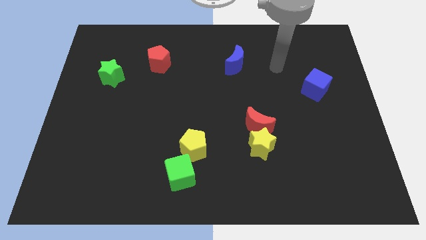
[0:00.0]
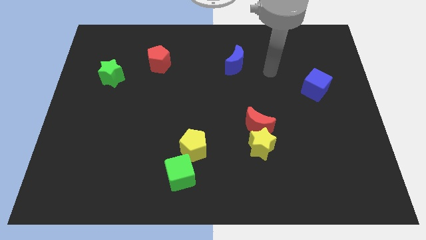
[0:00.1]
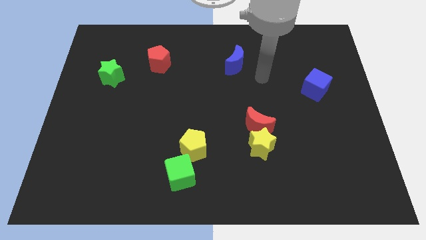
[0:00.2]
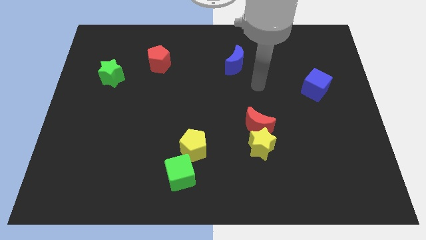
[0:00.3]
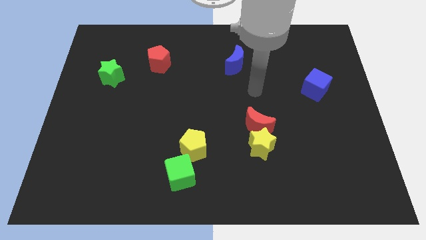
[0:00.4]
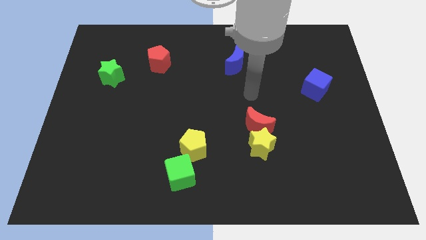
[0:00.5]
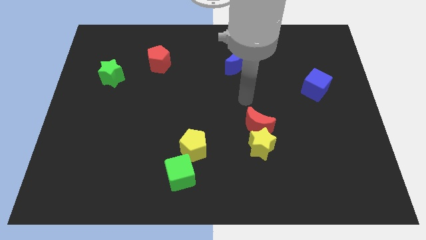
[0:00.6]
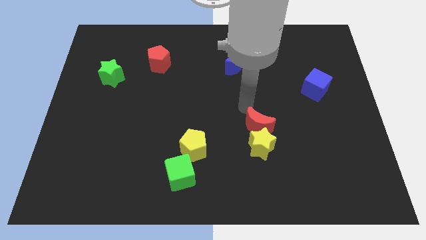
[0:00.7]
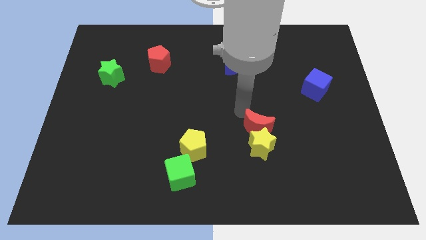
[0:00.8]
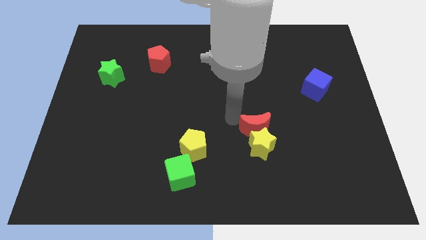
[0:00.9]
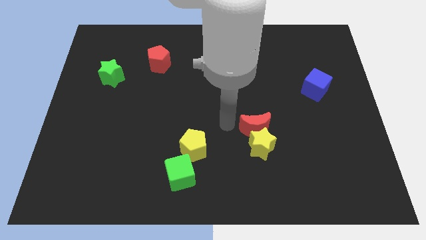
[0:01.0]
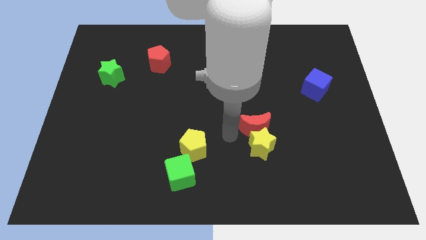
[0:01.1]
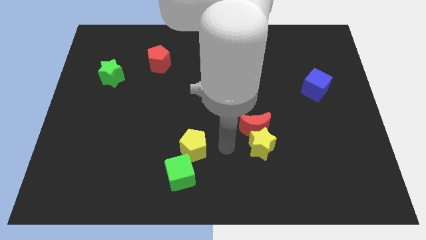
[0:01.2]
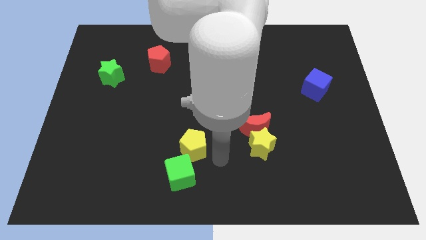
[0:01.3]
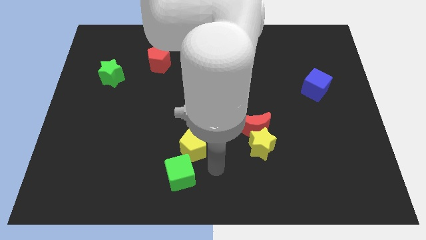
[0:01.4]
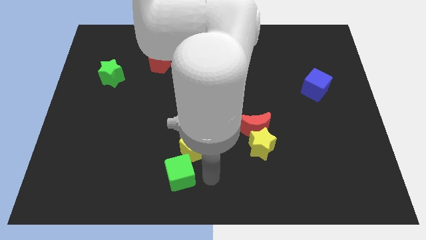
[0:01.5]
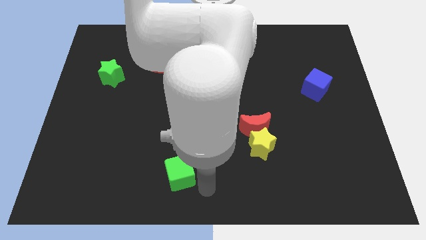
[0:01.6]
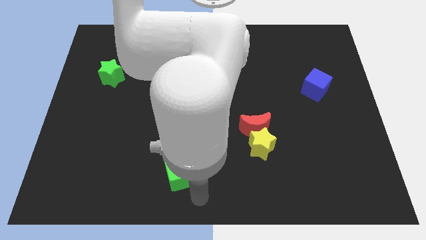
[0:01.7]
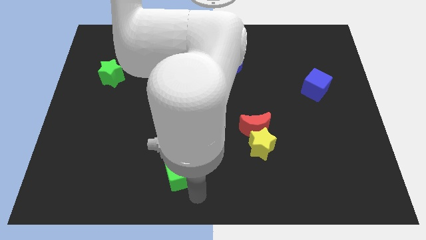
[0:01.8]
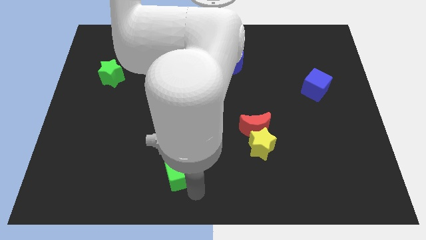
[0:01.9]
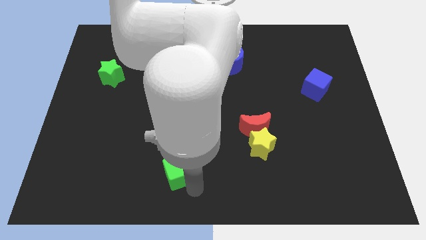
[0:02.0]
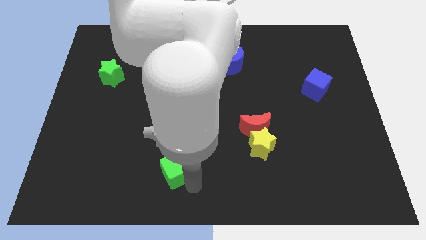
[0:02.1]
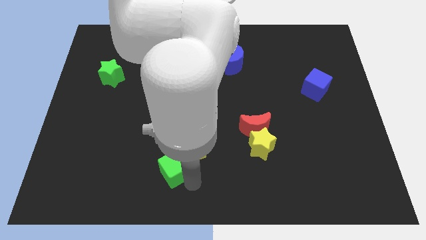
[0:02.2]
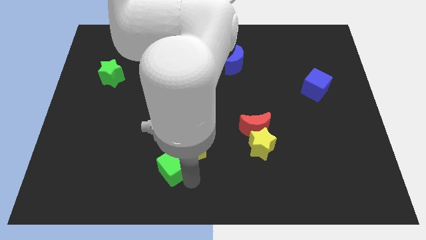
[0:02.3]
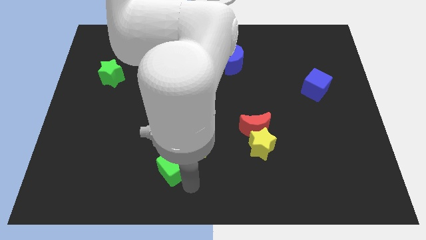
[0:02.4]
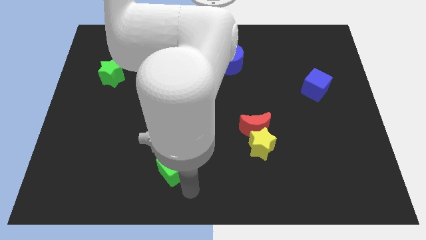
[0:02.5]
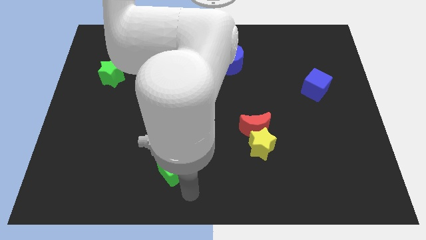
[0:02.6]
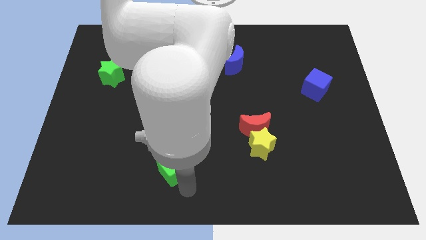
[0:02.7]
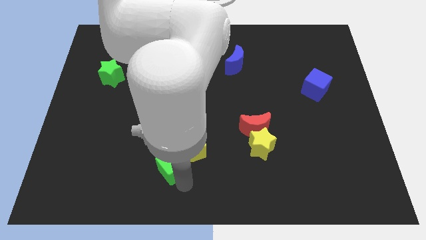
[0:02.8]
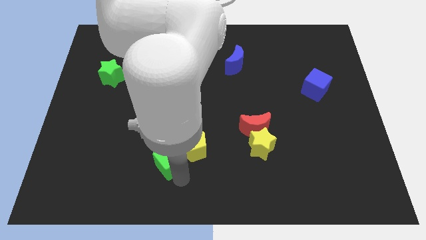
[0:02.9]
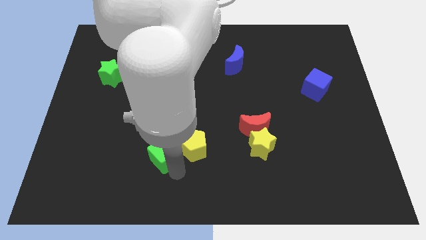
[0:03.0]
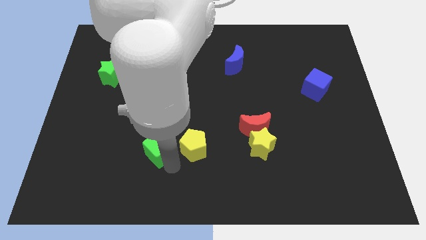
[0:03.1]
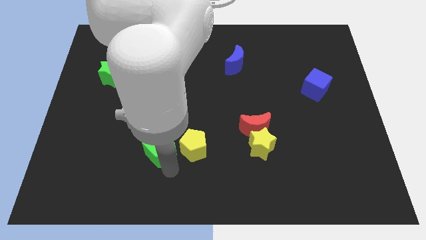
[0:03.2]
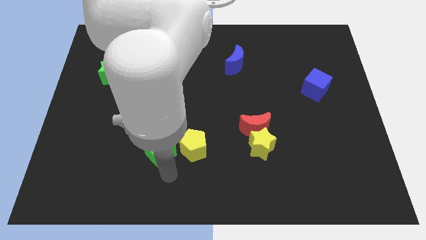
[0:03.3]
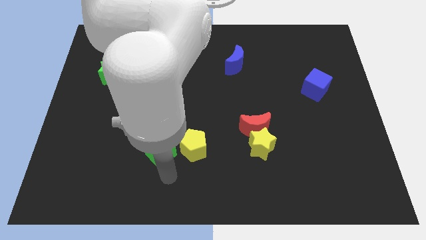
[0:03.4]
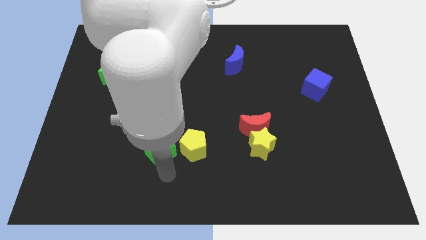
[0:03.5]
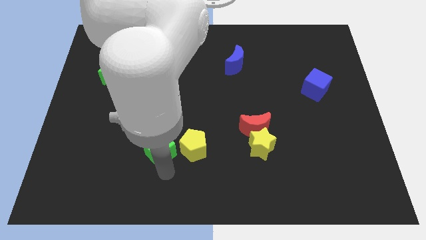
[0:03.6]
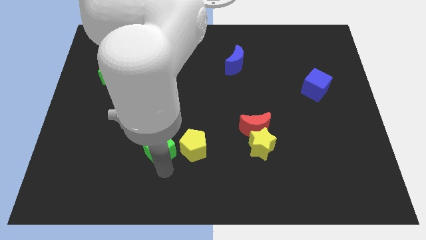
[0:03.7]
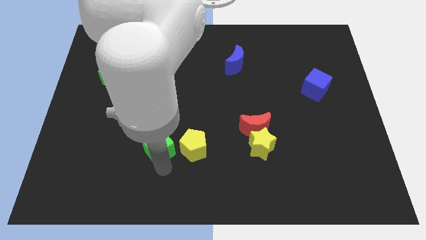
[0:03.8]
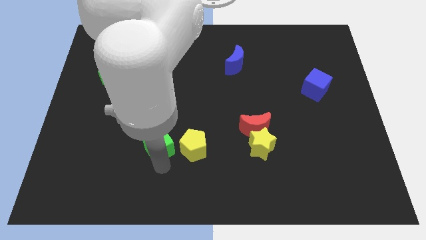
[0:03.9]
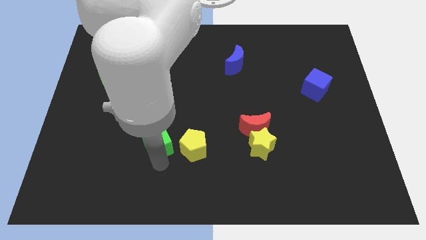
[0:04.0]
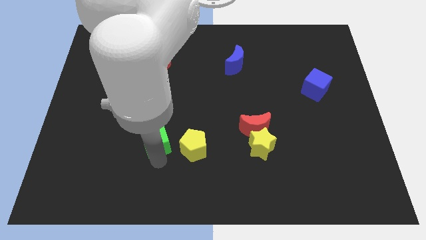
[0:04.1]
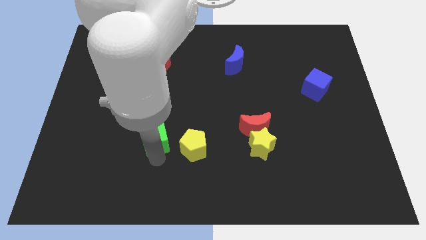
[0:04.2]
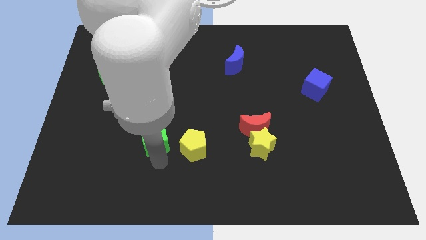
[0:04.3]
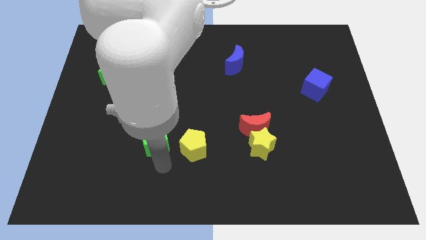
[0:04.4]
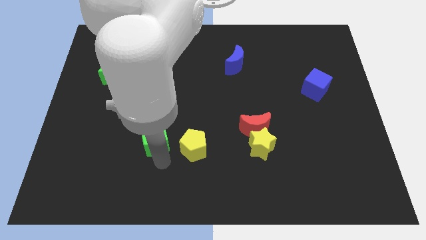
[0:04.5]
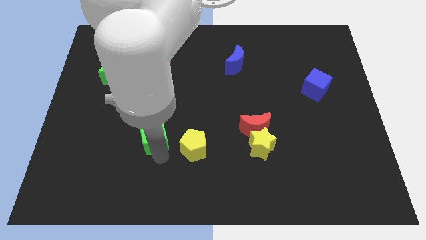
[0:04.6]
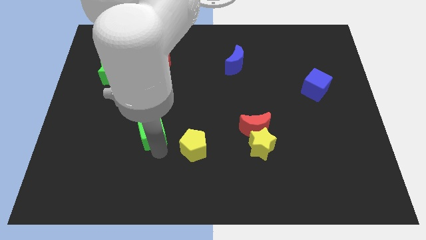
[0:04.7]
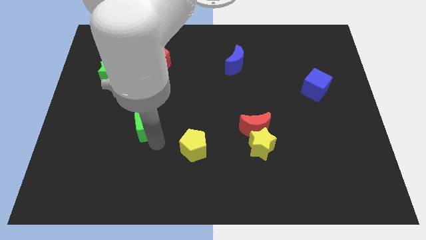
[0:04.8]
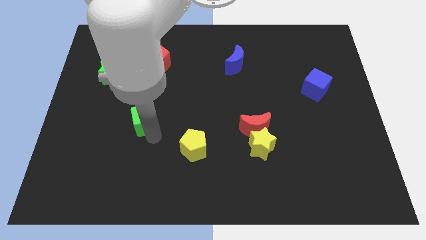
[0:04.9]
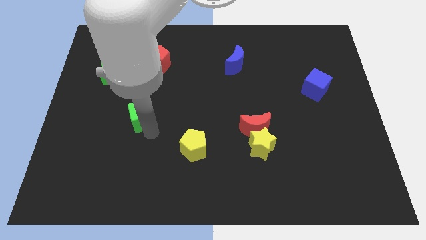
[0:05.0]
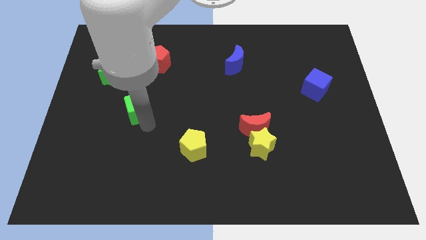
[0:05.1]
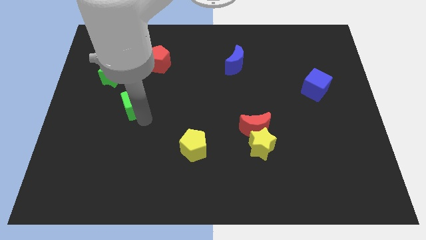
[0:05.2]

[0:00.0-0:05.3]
move the green cube to the bottom right of the green star

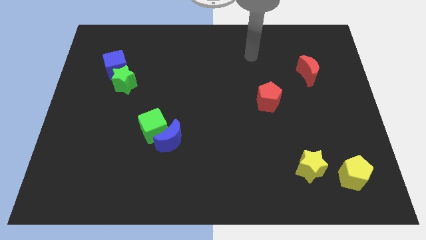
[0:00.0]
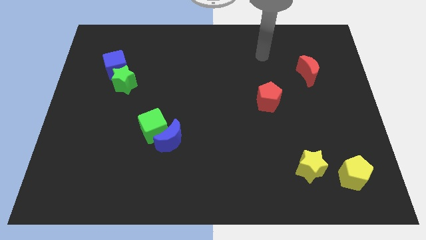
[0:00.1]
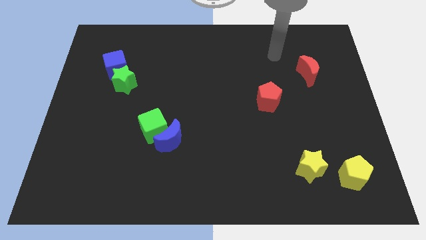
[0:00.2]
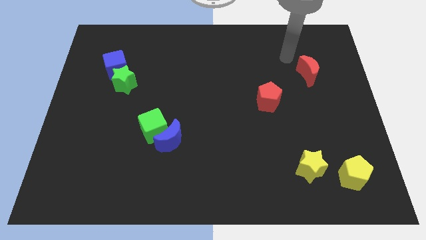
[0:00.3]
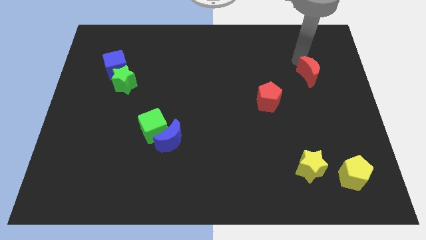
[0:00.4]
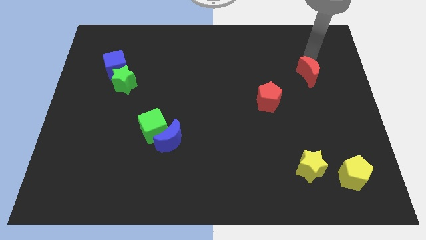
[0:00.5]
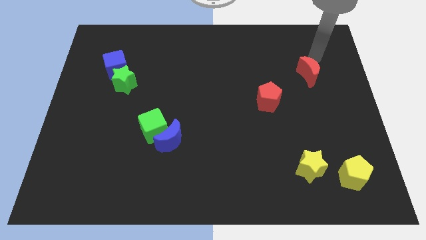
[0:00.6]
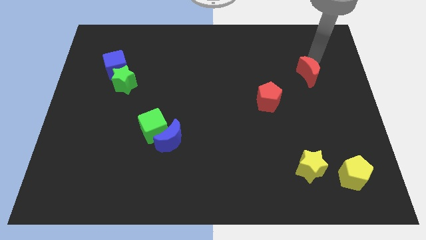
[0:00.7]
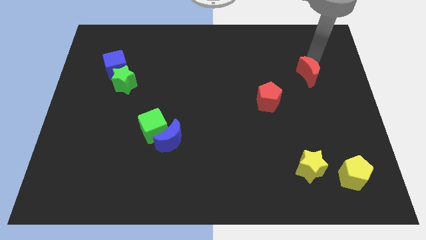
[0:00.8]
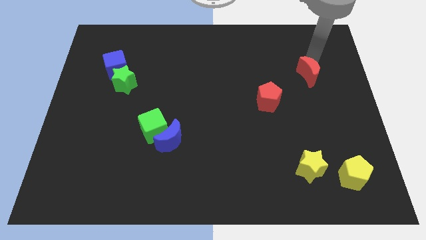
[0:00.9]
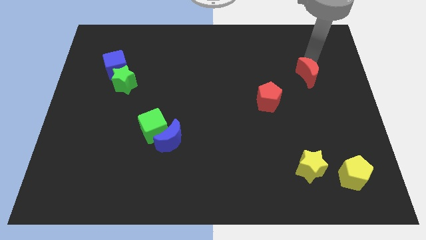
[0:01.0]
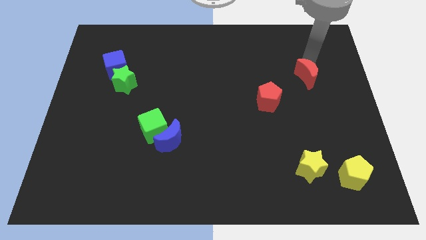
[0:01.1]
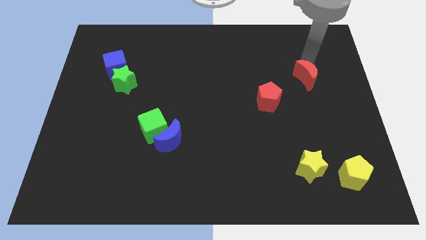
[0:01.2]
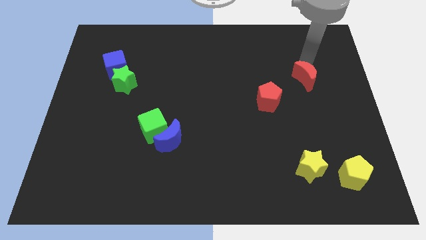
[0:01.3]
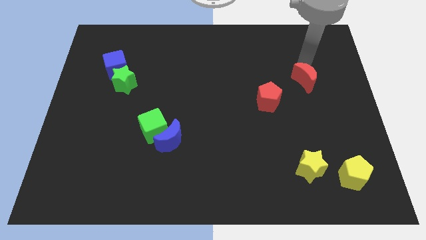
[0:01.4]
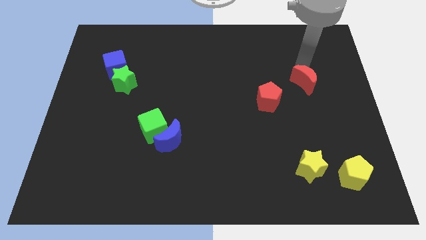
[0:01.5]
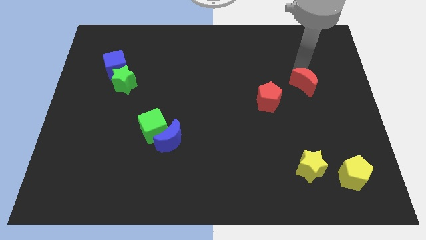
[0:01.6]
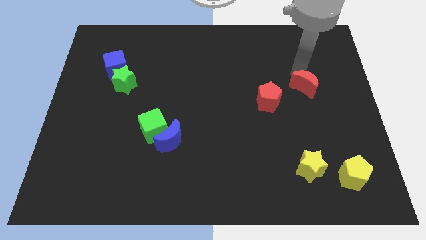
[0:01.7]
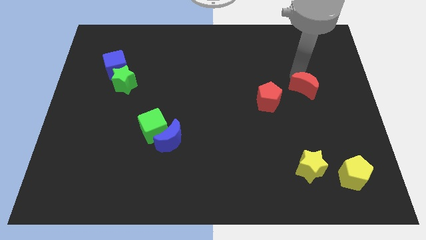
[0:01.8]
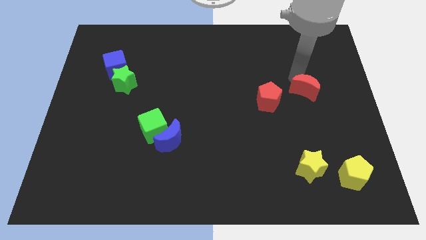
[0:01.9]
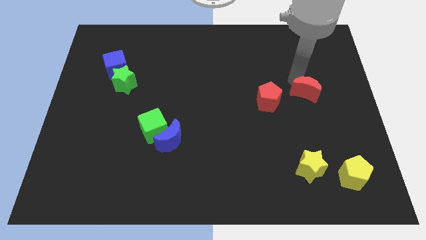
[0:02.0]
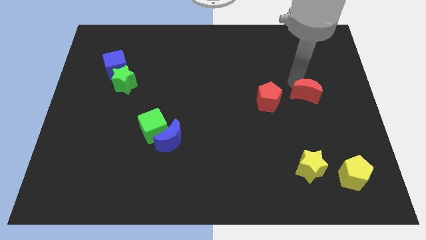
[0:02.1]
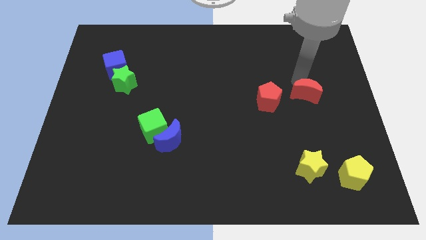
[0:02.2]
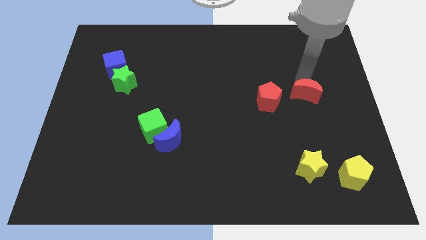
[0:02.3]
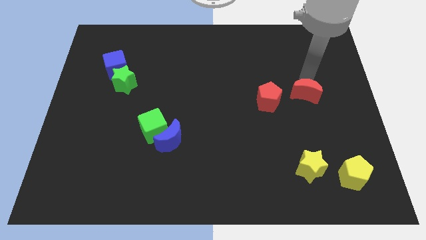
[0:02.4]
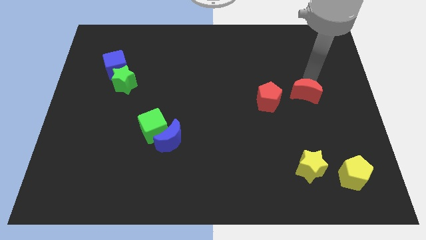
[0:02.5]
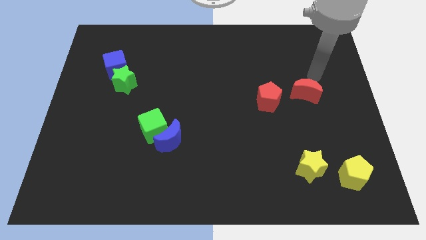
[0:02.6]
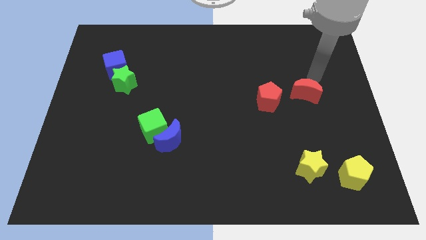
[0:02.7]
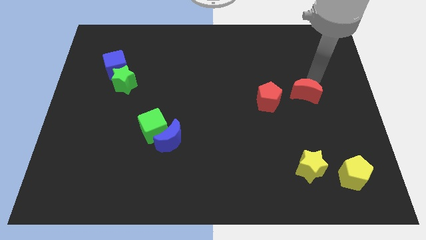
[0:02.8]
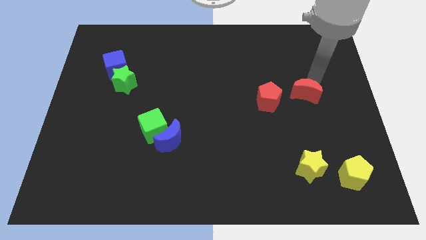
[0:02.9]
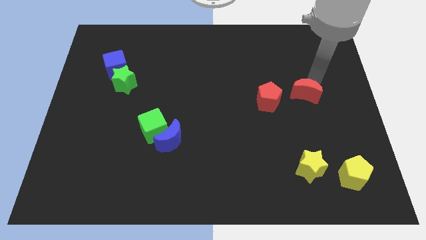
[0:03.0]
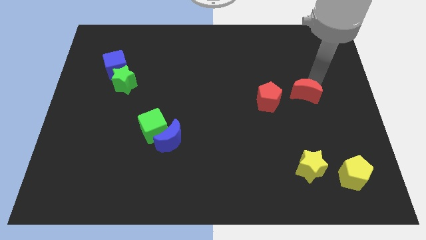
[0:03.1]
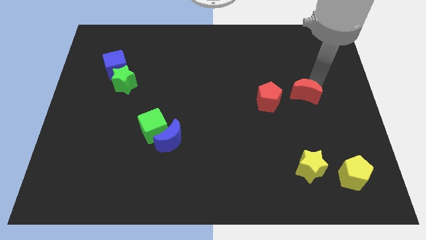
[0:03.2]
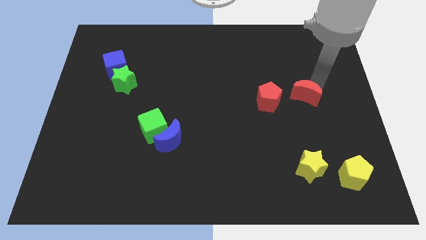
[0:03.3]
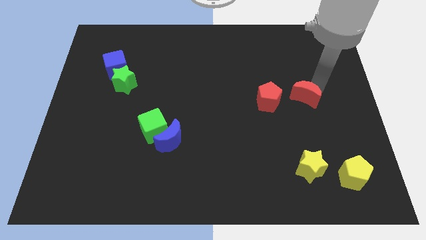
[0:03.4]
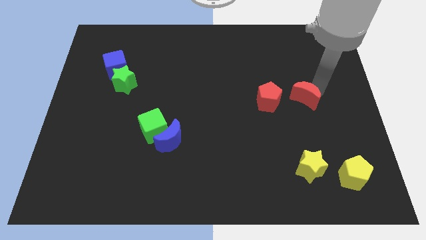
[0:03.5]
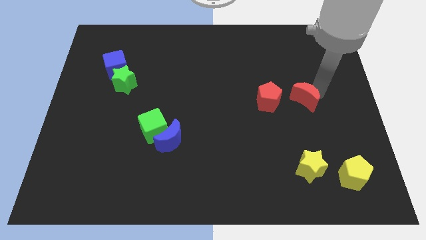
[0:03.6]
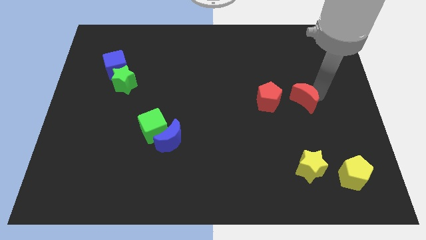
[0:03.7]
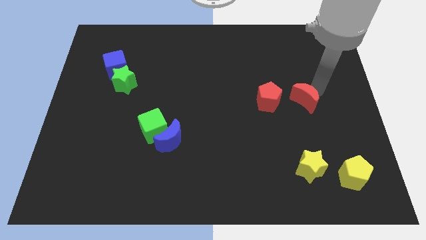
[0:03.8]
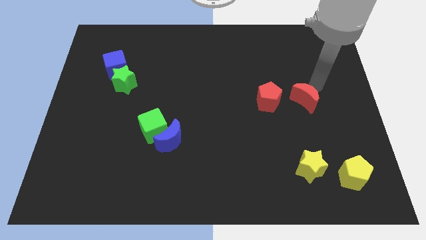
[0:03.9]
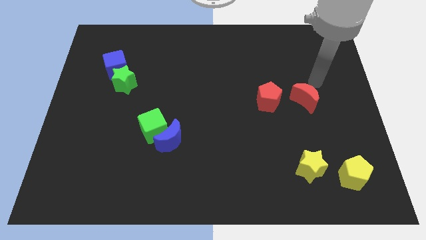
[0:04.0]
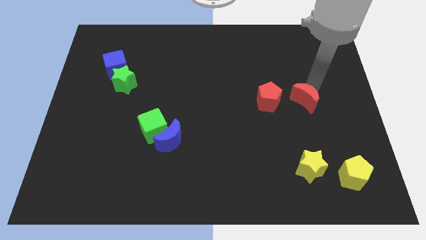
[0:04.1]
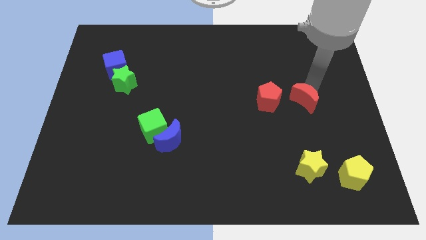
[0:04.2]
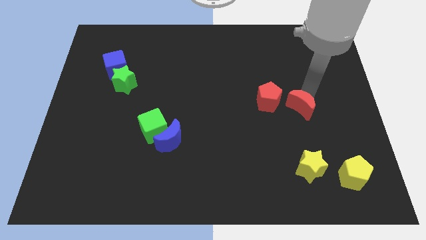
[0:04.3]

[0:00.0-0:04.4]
move the red moon to the bottom right side of the red pentagon
